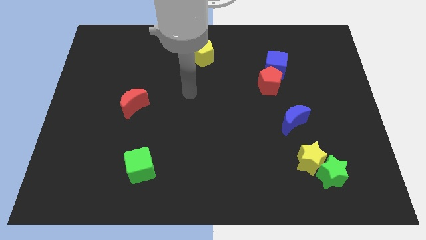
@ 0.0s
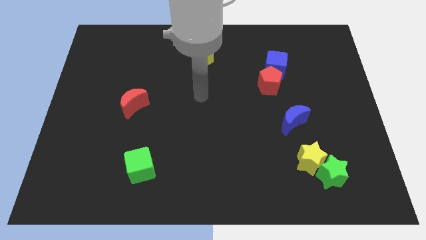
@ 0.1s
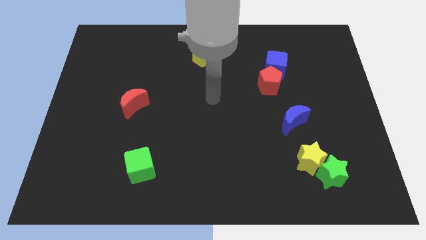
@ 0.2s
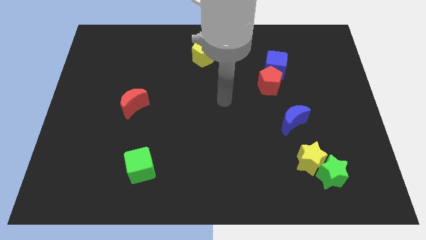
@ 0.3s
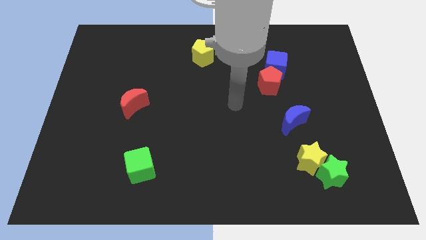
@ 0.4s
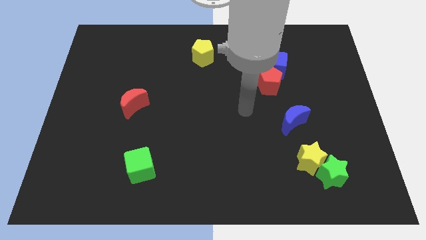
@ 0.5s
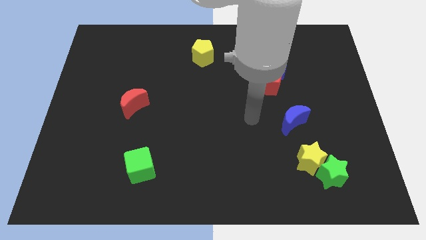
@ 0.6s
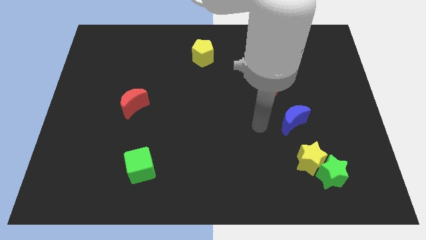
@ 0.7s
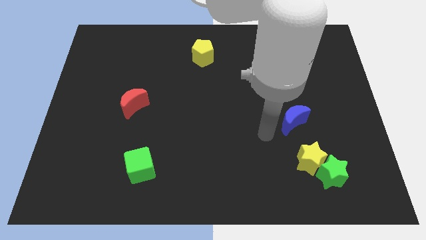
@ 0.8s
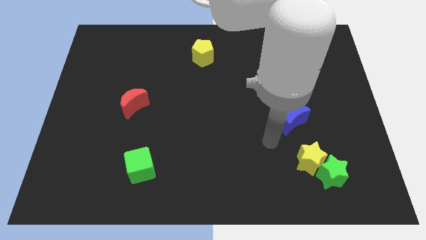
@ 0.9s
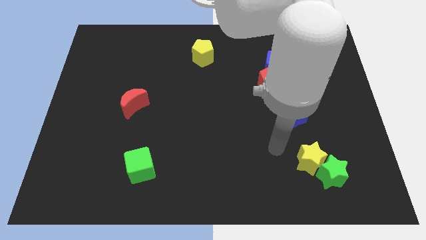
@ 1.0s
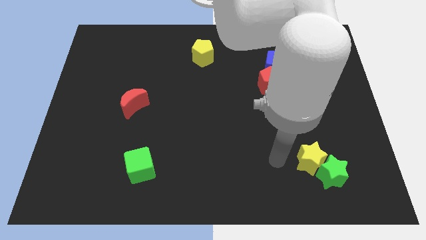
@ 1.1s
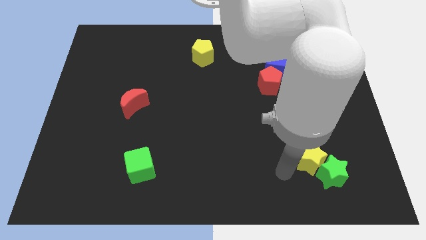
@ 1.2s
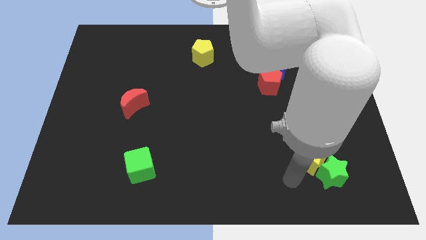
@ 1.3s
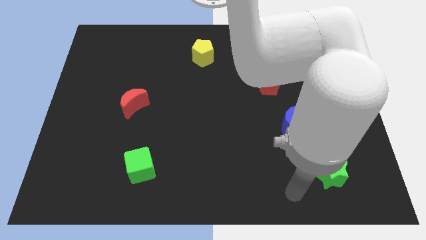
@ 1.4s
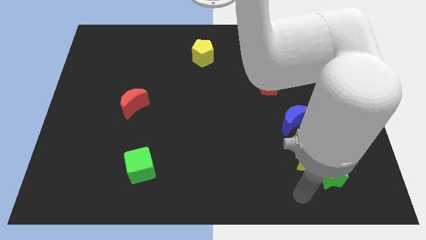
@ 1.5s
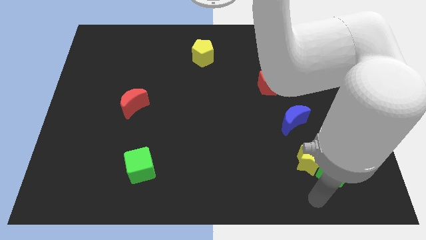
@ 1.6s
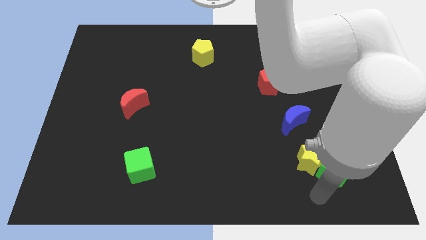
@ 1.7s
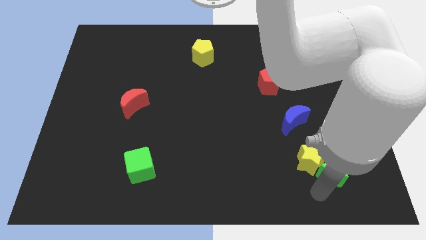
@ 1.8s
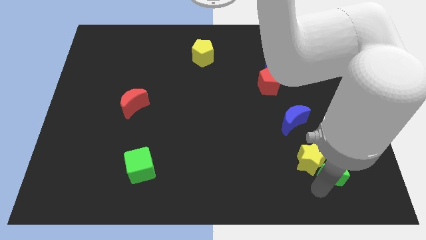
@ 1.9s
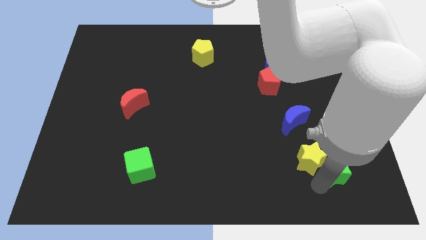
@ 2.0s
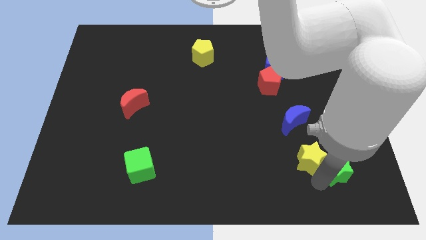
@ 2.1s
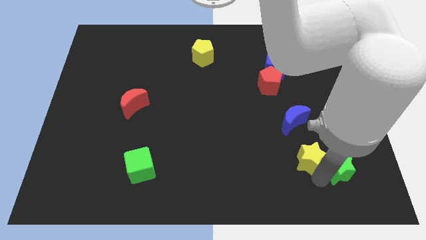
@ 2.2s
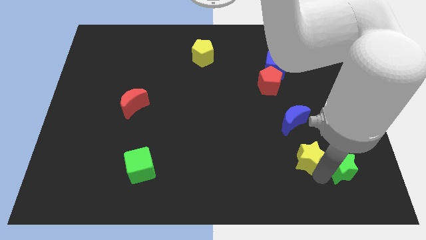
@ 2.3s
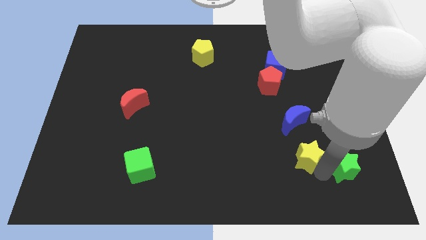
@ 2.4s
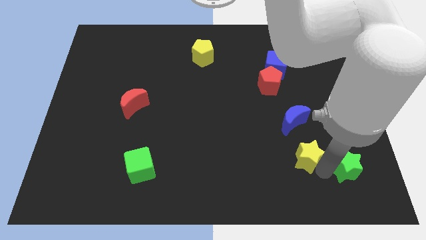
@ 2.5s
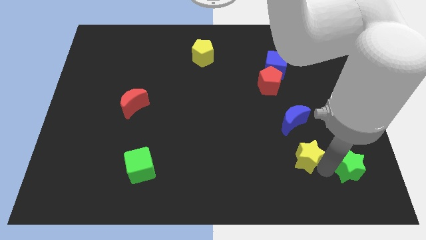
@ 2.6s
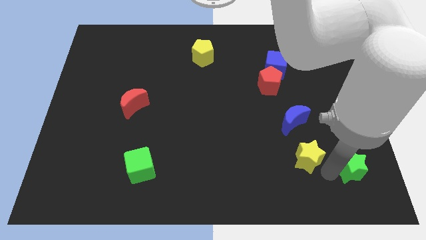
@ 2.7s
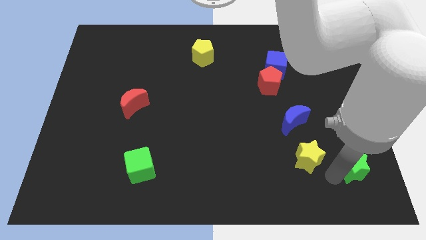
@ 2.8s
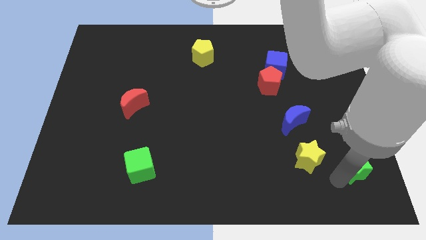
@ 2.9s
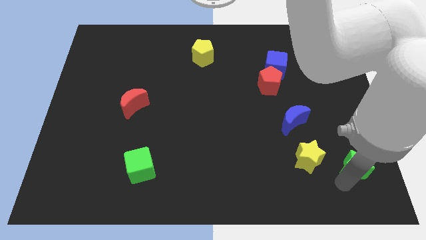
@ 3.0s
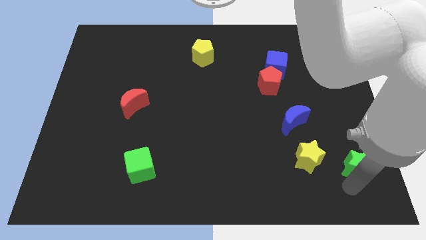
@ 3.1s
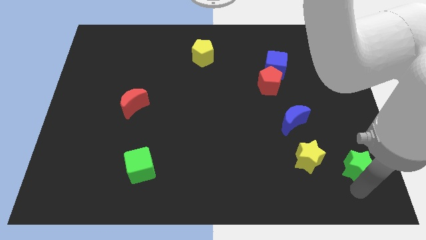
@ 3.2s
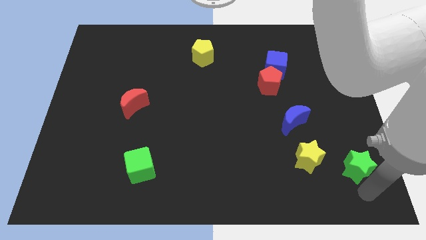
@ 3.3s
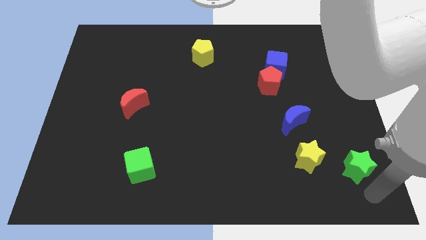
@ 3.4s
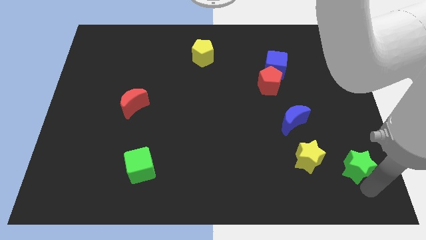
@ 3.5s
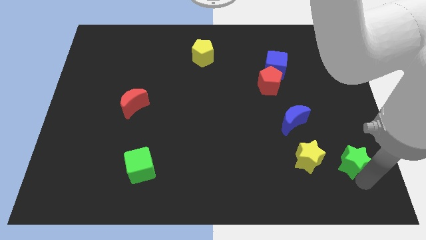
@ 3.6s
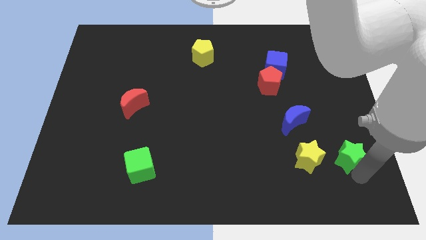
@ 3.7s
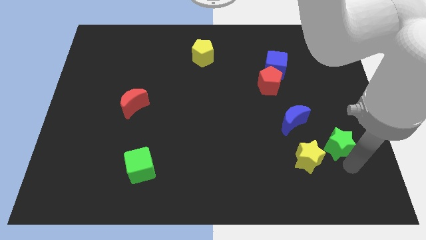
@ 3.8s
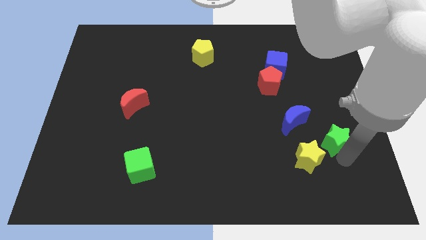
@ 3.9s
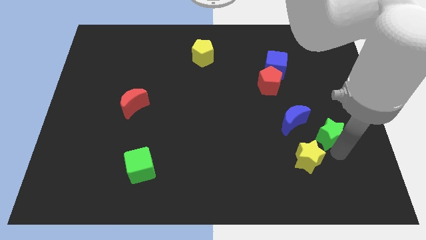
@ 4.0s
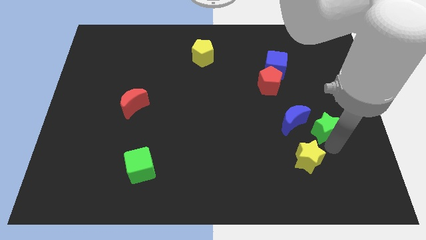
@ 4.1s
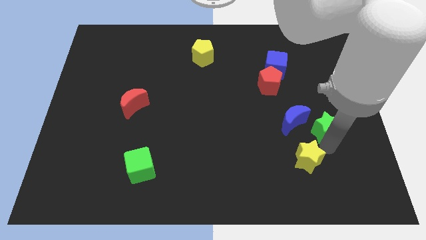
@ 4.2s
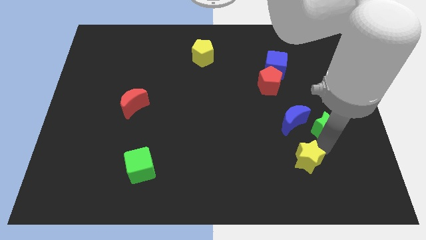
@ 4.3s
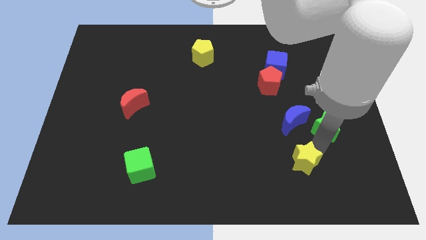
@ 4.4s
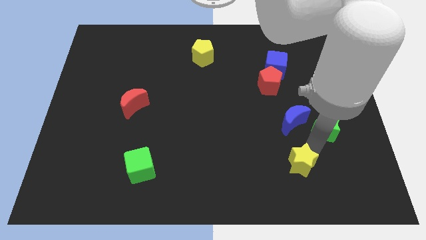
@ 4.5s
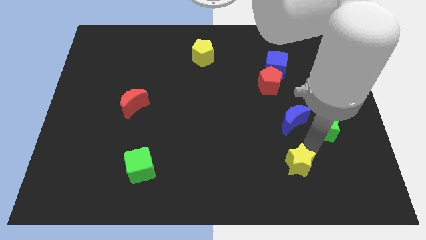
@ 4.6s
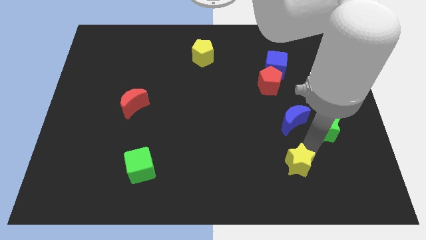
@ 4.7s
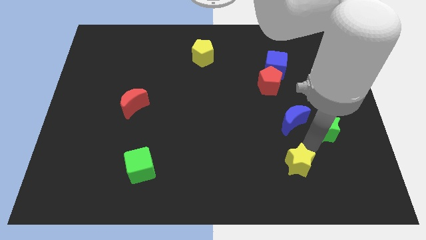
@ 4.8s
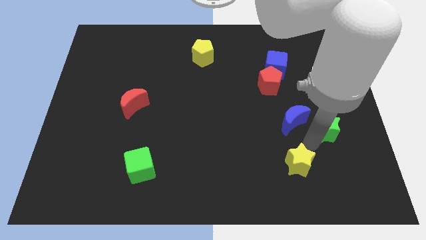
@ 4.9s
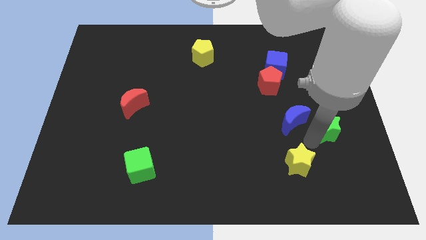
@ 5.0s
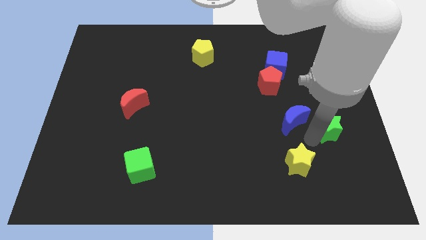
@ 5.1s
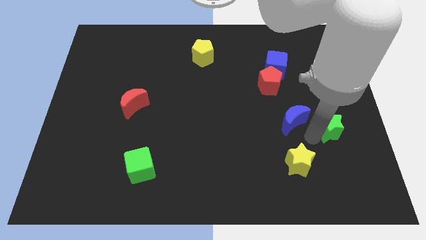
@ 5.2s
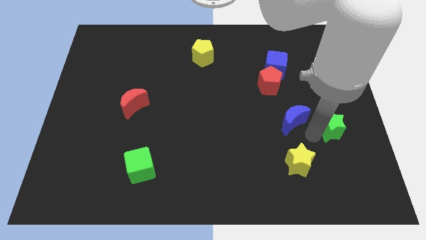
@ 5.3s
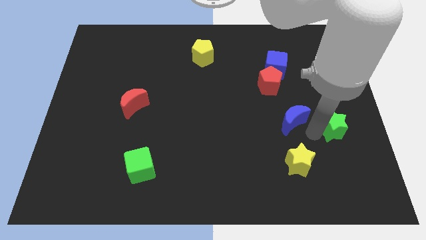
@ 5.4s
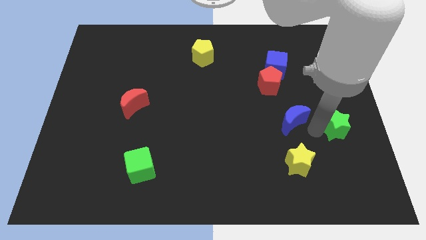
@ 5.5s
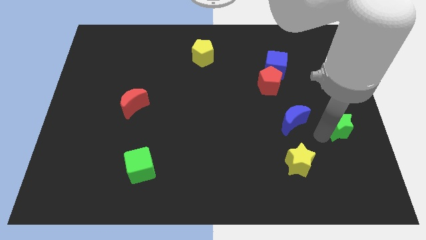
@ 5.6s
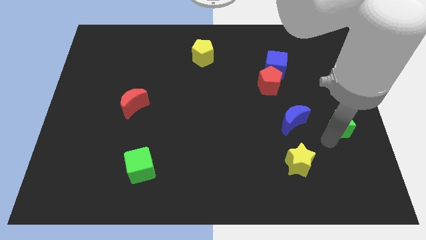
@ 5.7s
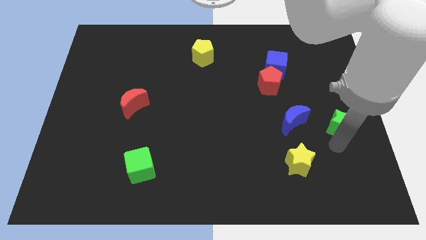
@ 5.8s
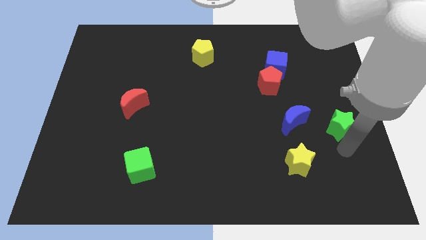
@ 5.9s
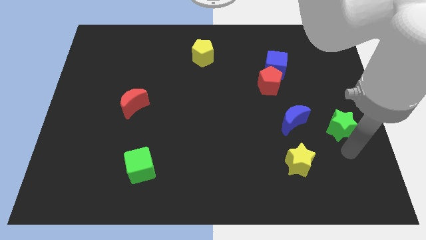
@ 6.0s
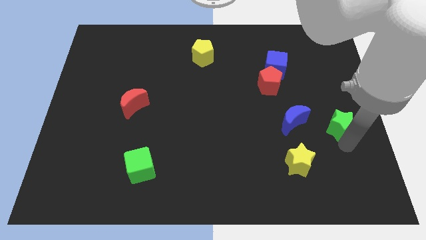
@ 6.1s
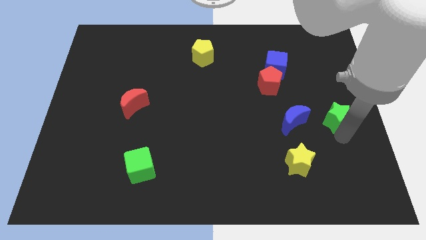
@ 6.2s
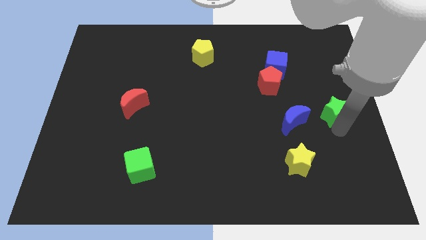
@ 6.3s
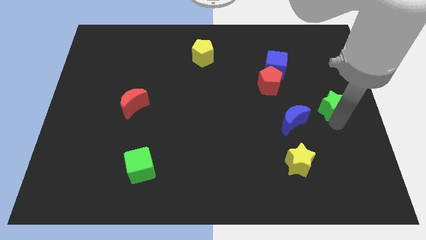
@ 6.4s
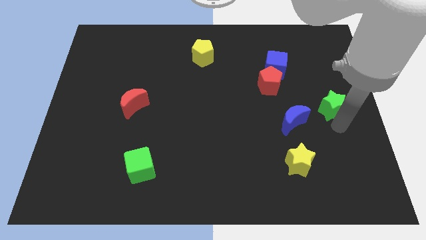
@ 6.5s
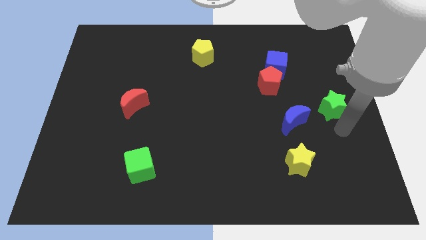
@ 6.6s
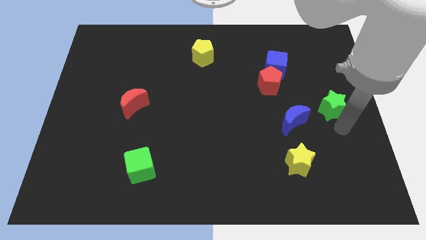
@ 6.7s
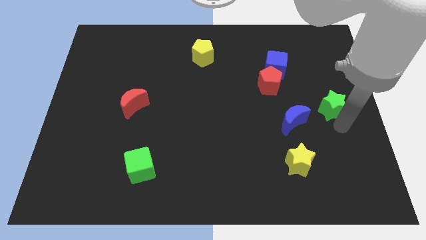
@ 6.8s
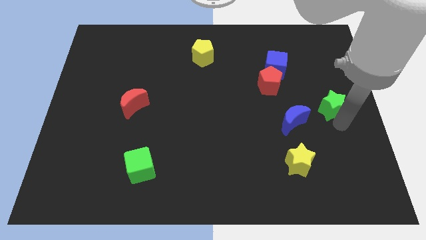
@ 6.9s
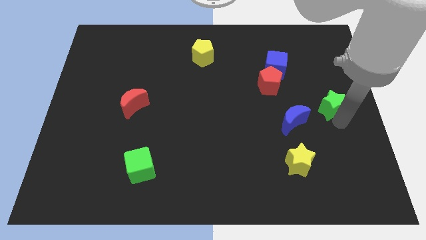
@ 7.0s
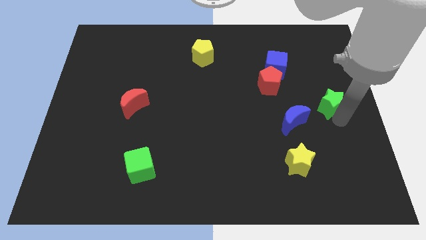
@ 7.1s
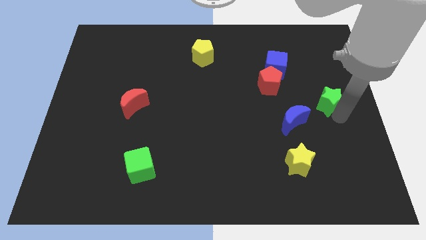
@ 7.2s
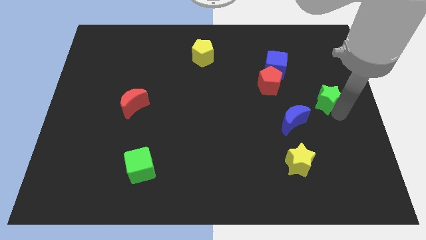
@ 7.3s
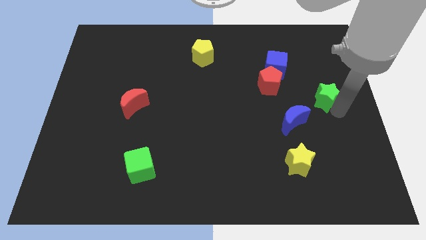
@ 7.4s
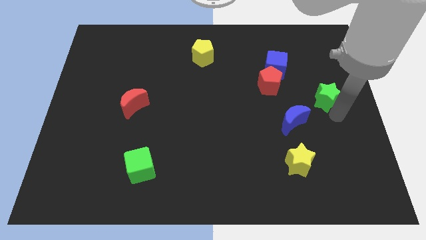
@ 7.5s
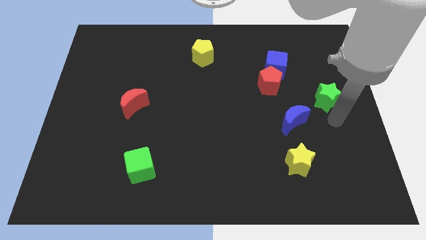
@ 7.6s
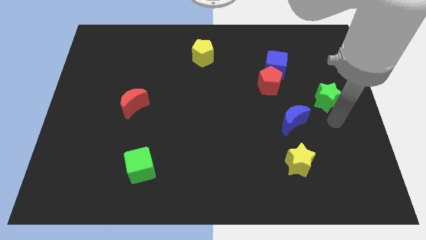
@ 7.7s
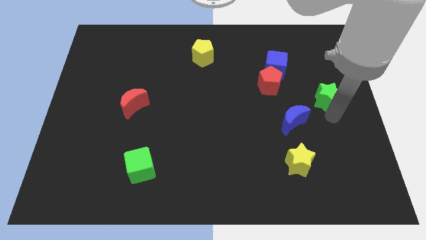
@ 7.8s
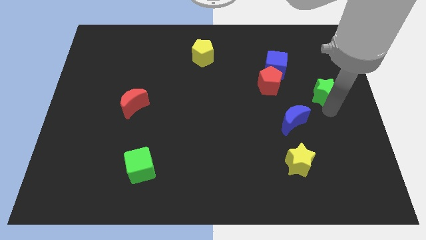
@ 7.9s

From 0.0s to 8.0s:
move the green star upwards
